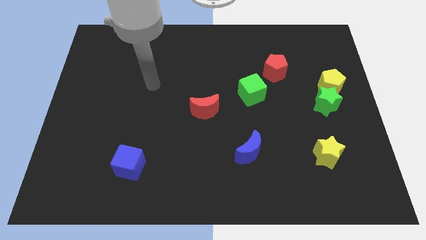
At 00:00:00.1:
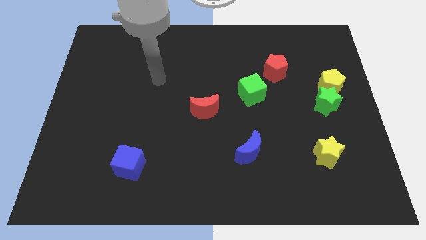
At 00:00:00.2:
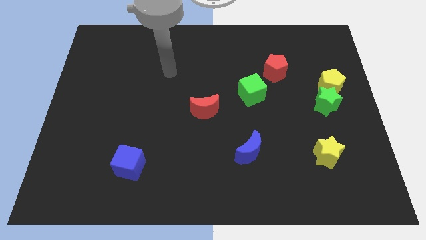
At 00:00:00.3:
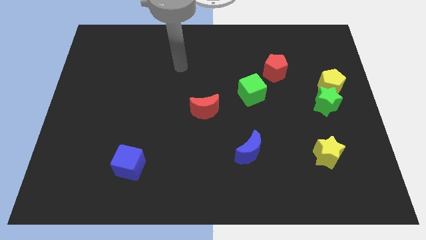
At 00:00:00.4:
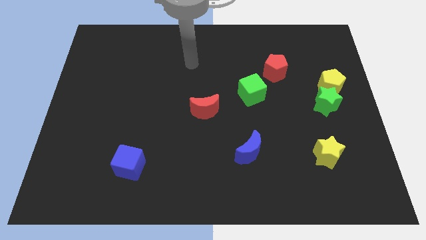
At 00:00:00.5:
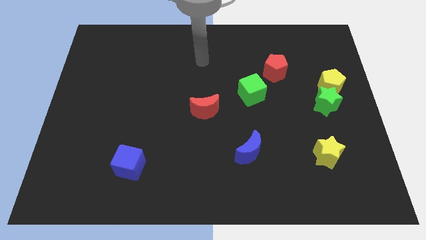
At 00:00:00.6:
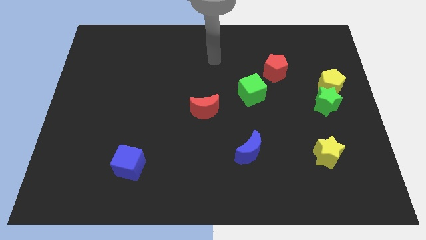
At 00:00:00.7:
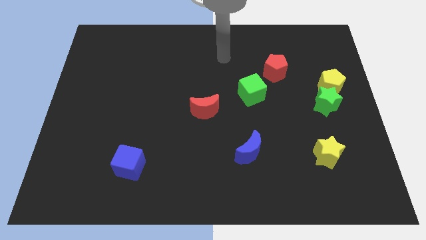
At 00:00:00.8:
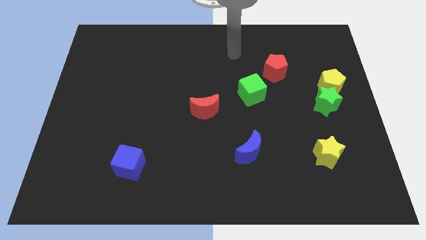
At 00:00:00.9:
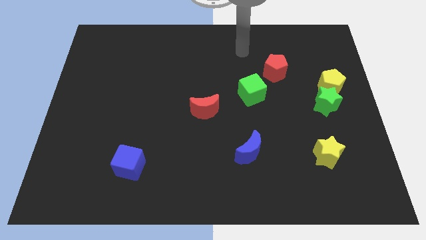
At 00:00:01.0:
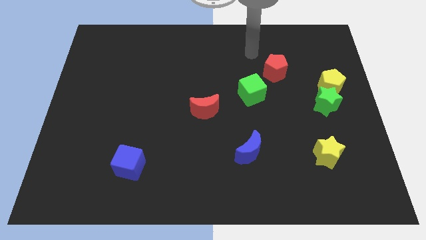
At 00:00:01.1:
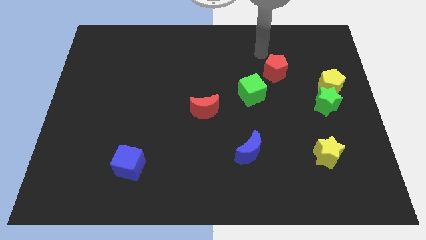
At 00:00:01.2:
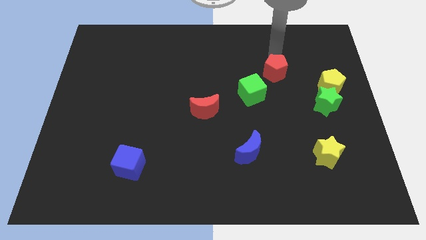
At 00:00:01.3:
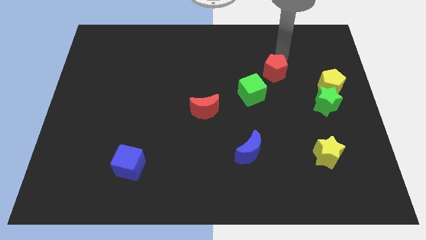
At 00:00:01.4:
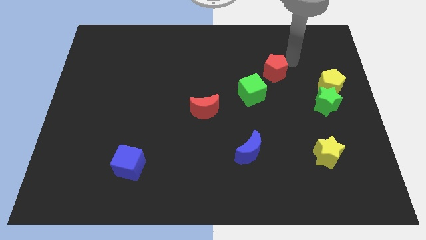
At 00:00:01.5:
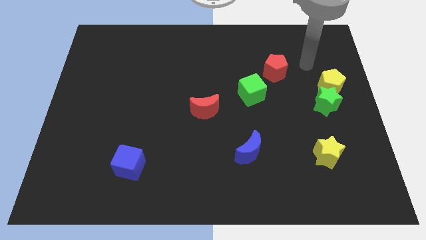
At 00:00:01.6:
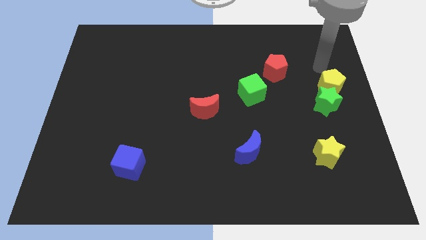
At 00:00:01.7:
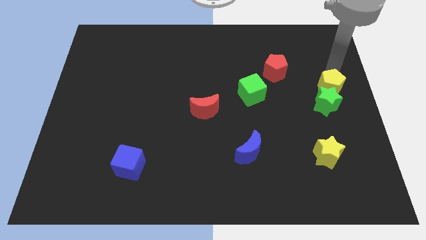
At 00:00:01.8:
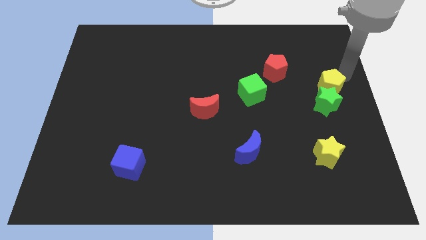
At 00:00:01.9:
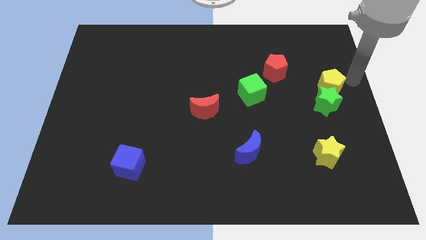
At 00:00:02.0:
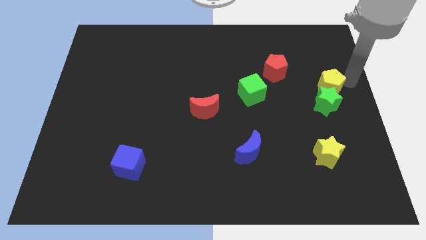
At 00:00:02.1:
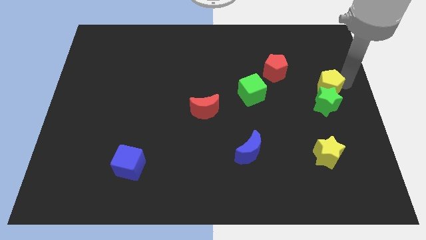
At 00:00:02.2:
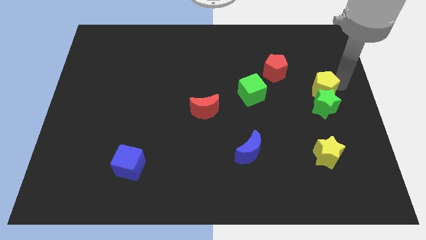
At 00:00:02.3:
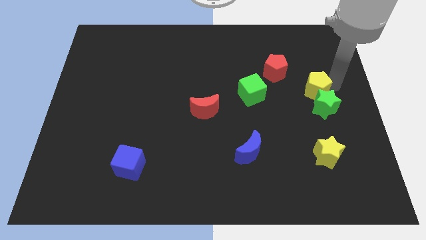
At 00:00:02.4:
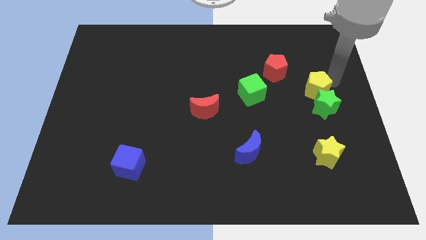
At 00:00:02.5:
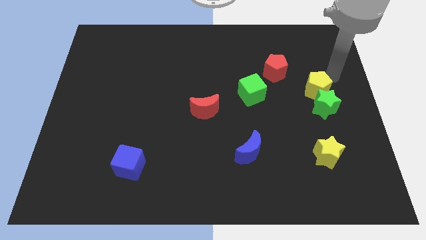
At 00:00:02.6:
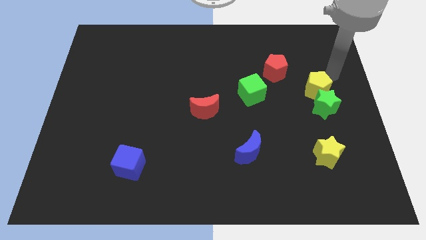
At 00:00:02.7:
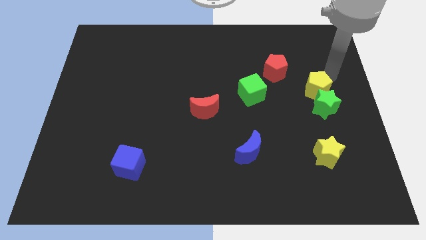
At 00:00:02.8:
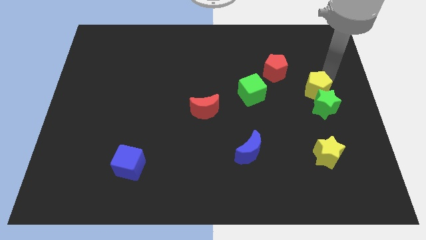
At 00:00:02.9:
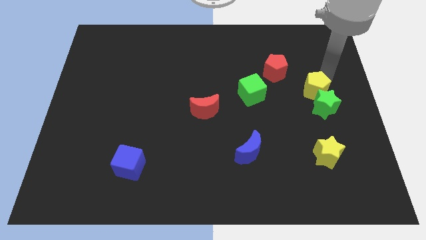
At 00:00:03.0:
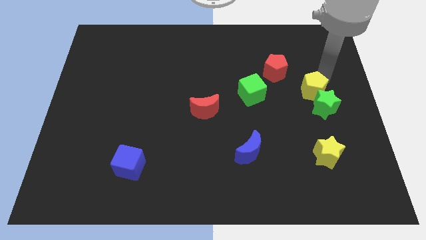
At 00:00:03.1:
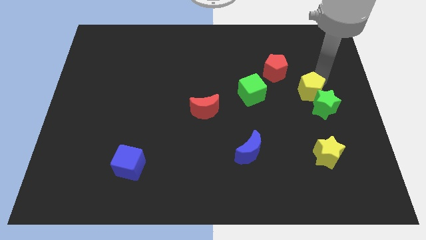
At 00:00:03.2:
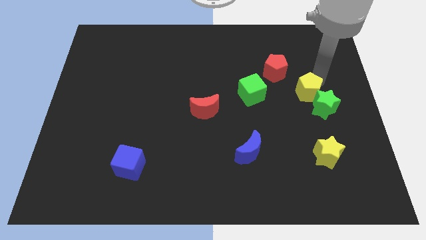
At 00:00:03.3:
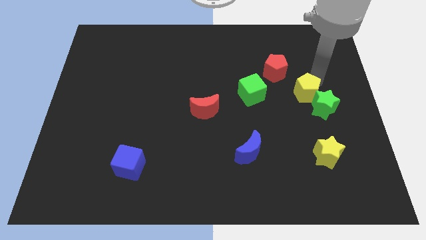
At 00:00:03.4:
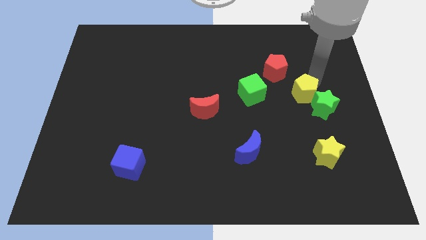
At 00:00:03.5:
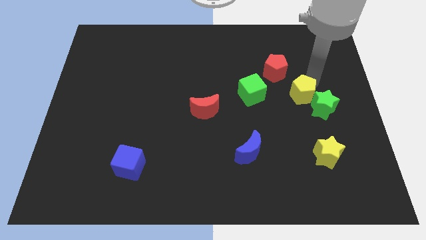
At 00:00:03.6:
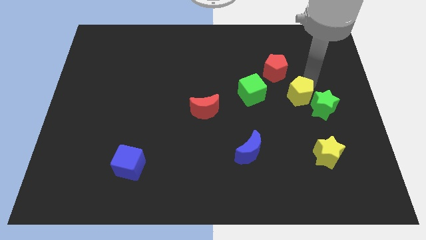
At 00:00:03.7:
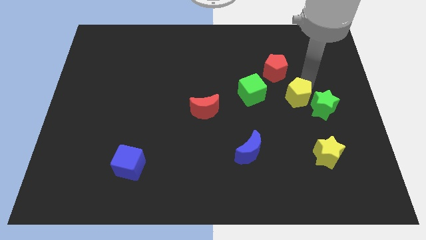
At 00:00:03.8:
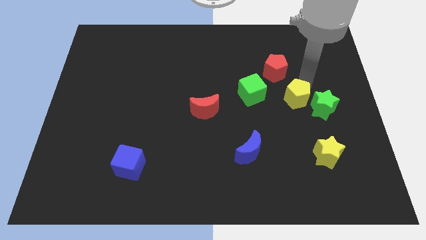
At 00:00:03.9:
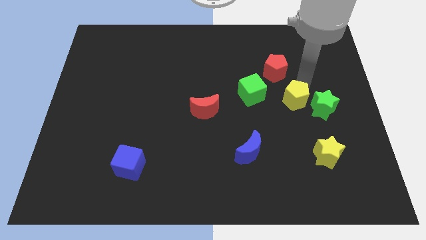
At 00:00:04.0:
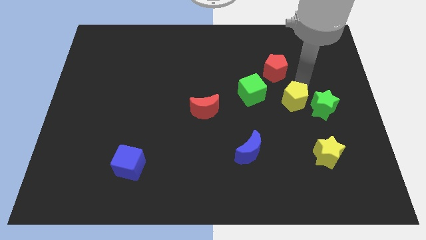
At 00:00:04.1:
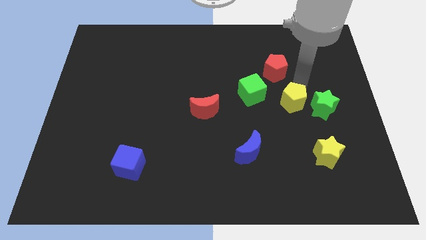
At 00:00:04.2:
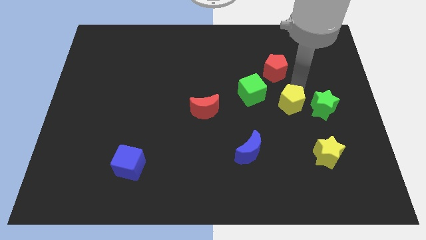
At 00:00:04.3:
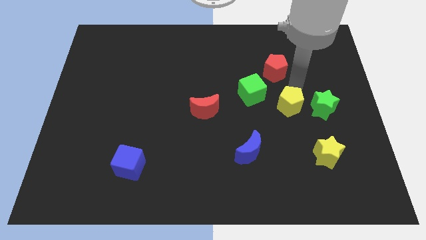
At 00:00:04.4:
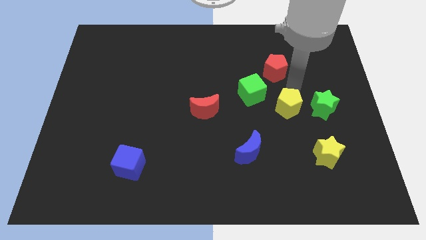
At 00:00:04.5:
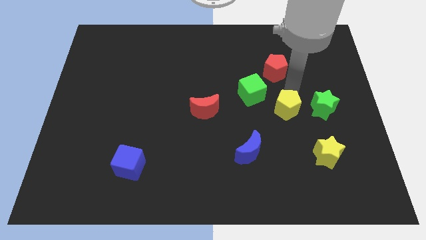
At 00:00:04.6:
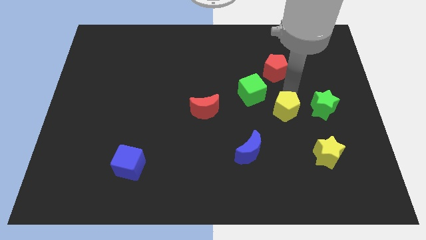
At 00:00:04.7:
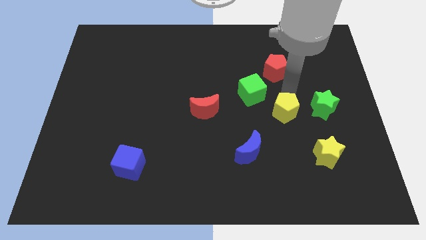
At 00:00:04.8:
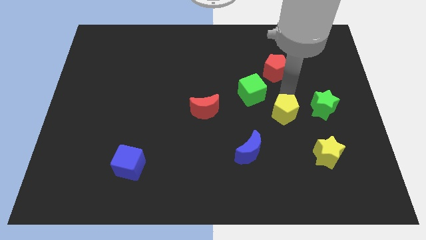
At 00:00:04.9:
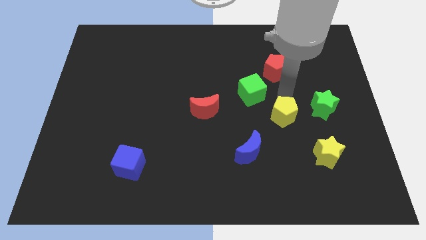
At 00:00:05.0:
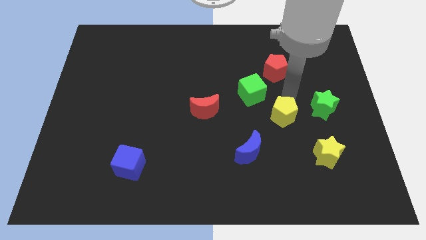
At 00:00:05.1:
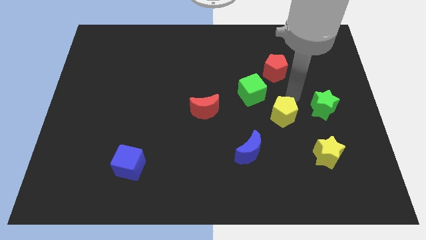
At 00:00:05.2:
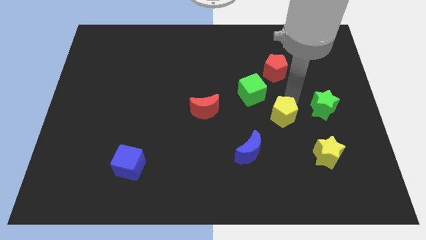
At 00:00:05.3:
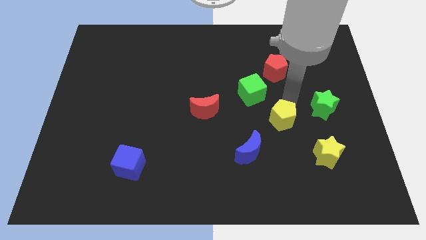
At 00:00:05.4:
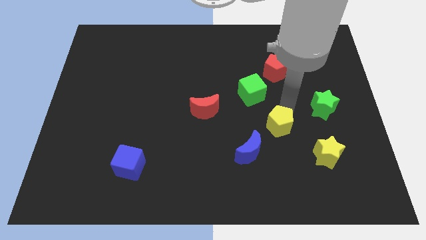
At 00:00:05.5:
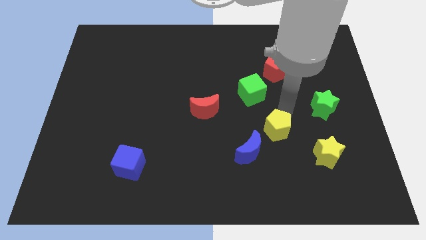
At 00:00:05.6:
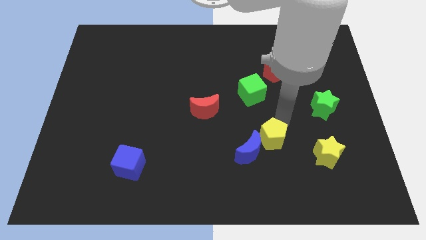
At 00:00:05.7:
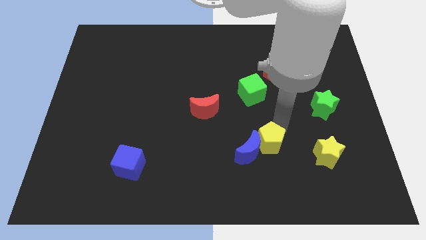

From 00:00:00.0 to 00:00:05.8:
push the yellow pentagon to the blue moon

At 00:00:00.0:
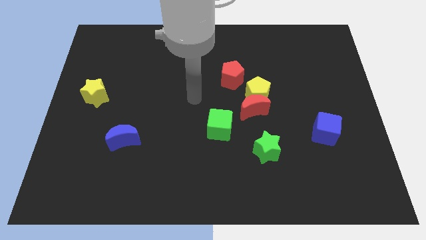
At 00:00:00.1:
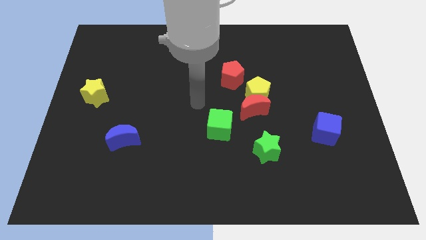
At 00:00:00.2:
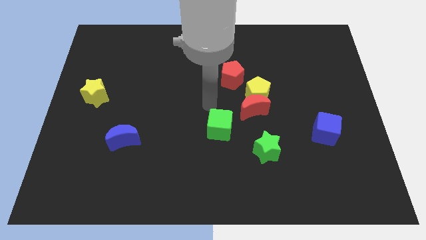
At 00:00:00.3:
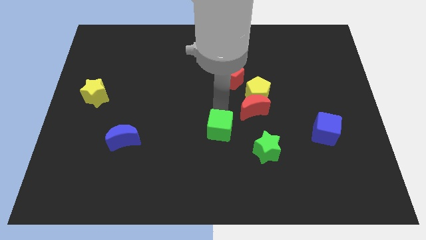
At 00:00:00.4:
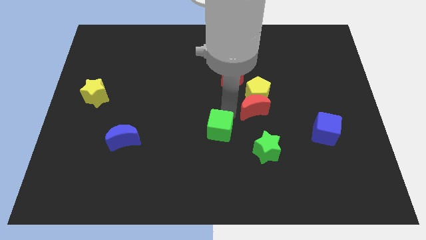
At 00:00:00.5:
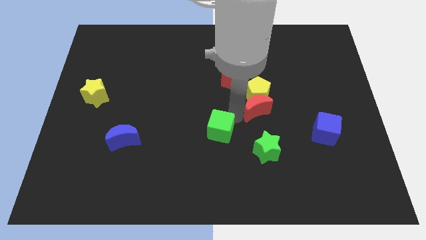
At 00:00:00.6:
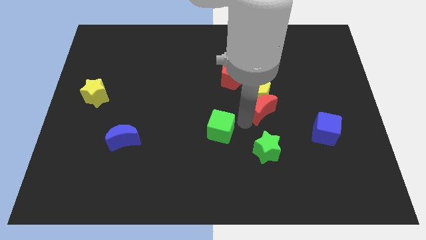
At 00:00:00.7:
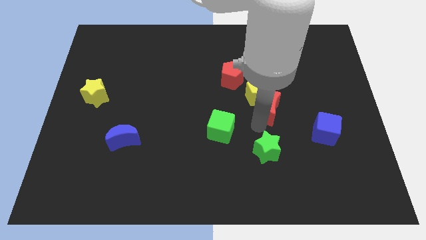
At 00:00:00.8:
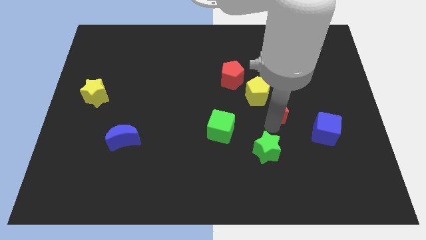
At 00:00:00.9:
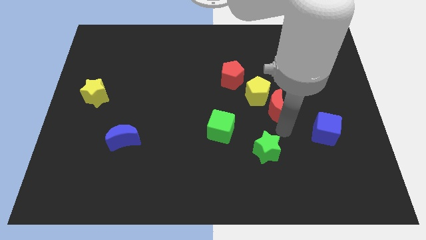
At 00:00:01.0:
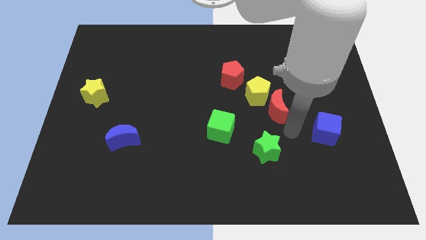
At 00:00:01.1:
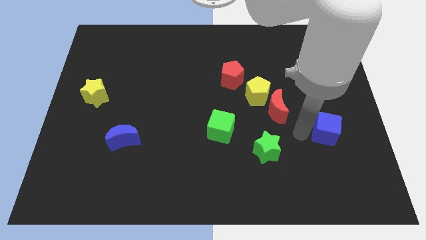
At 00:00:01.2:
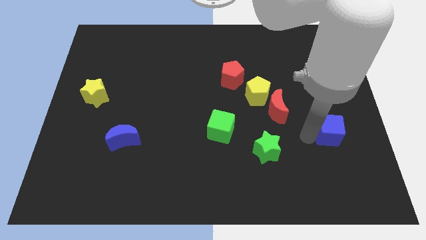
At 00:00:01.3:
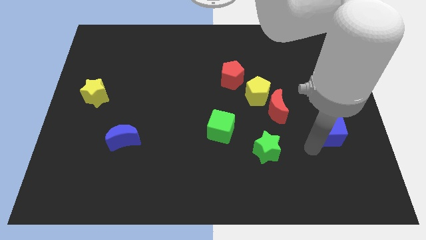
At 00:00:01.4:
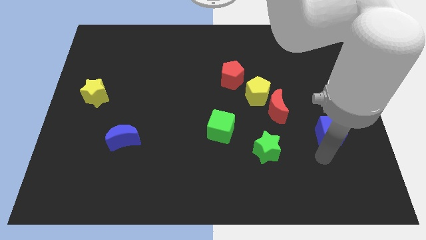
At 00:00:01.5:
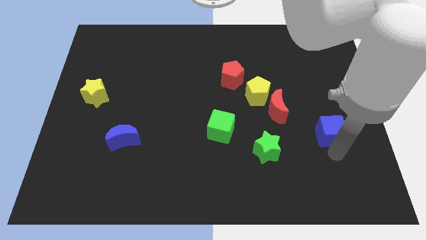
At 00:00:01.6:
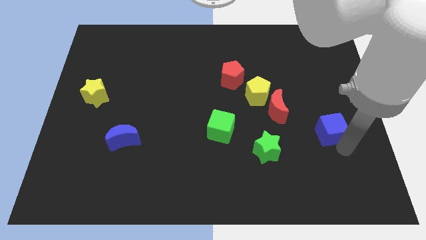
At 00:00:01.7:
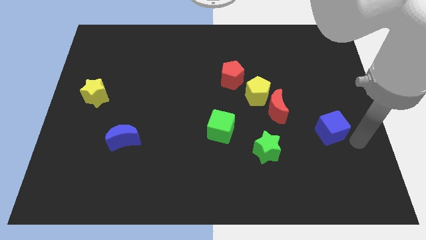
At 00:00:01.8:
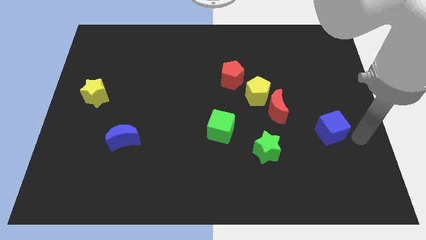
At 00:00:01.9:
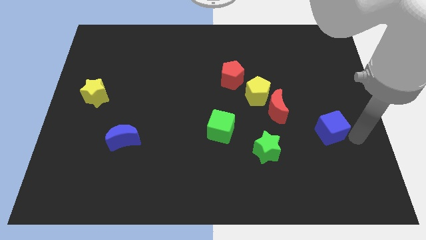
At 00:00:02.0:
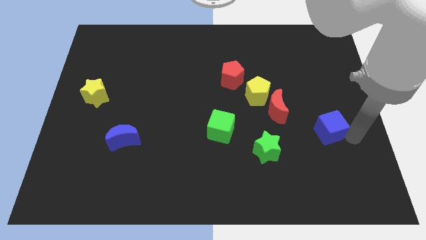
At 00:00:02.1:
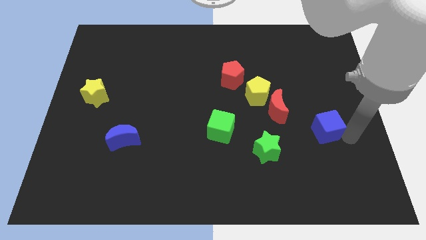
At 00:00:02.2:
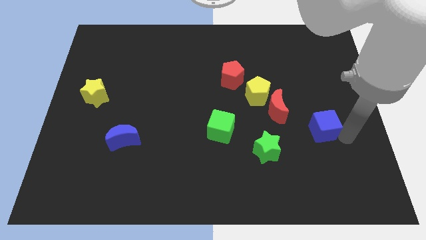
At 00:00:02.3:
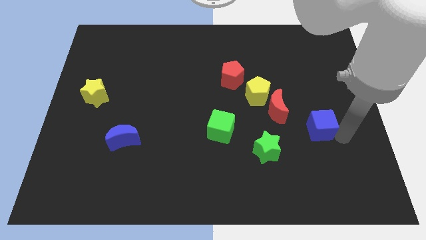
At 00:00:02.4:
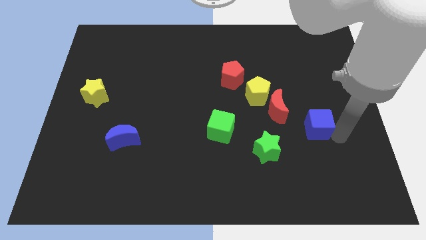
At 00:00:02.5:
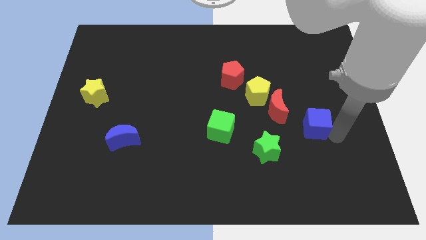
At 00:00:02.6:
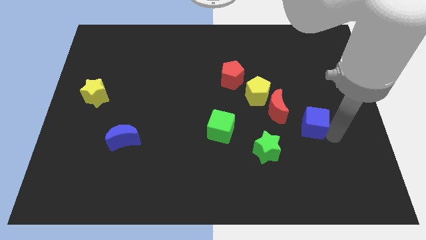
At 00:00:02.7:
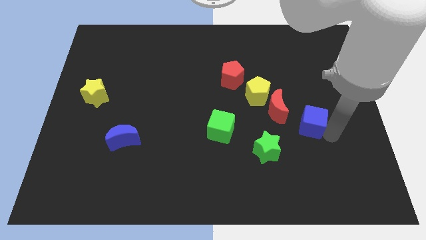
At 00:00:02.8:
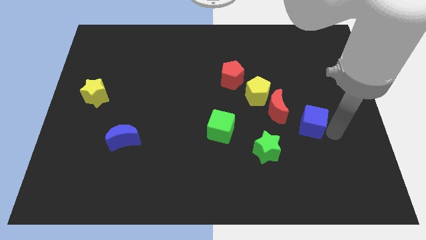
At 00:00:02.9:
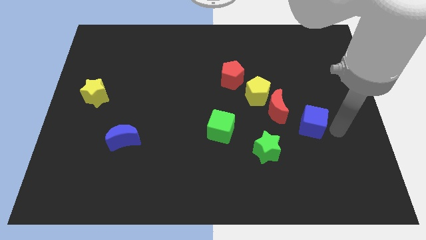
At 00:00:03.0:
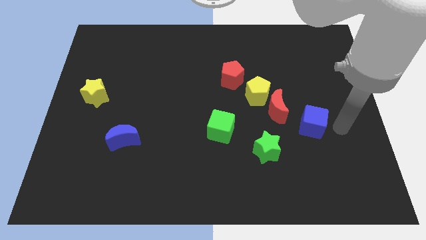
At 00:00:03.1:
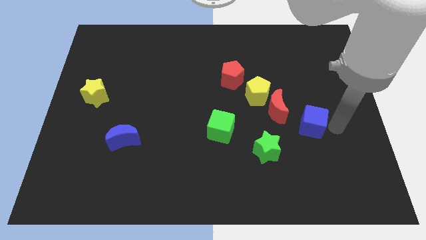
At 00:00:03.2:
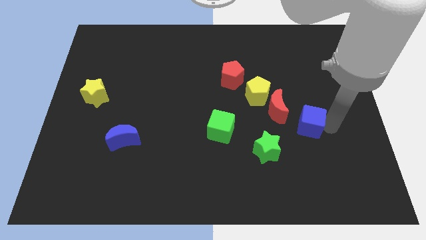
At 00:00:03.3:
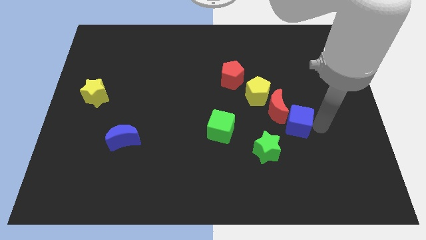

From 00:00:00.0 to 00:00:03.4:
put the blue cube to the red moon
